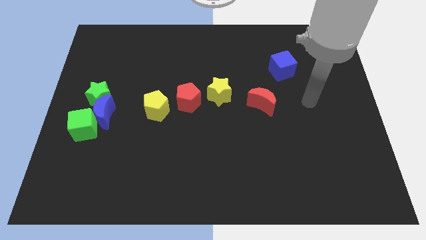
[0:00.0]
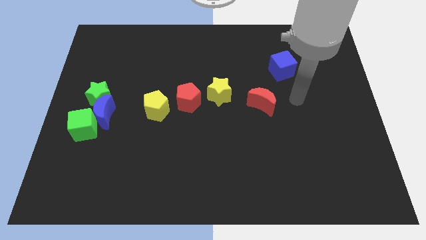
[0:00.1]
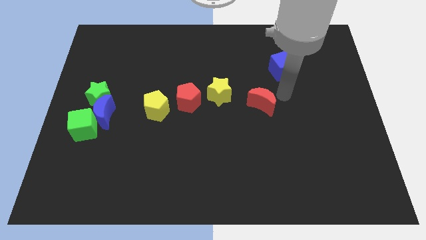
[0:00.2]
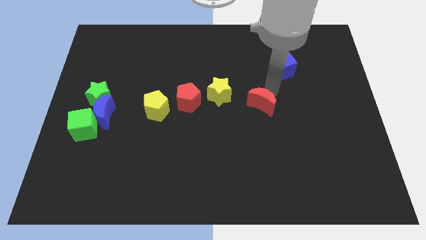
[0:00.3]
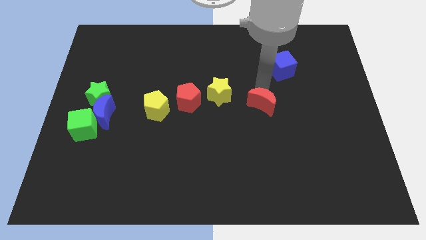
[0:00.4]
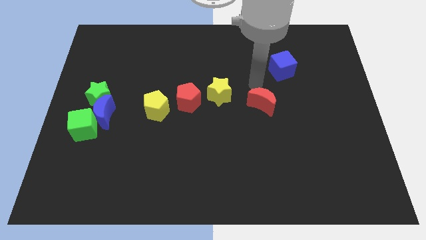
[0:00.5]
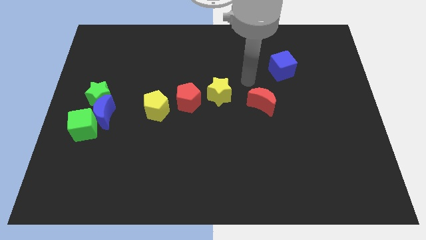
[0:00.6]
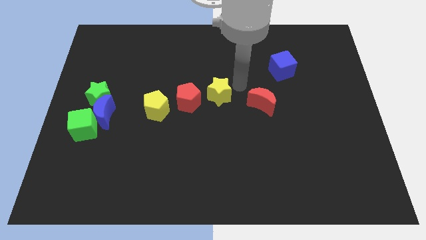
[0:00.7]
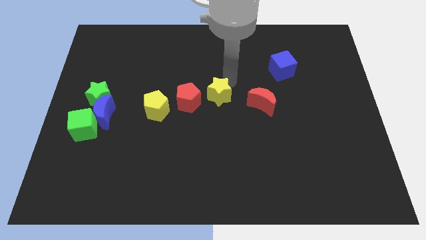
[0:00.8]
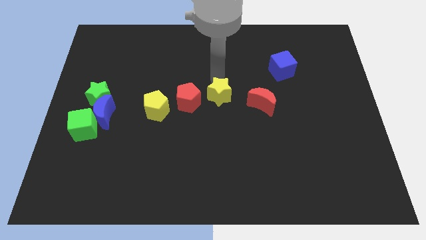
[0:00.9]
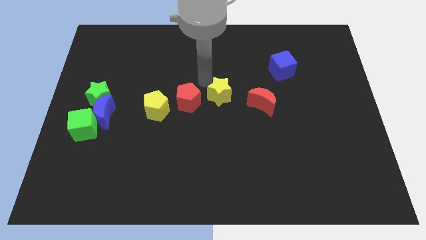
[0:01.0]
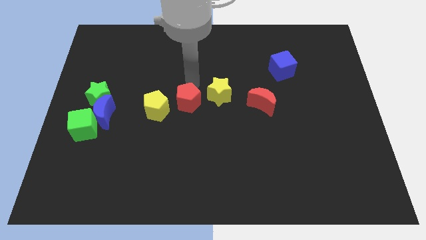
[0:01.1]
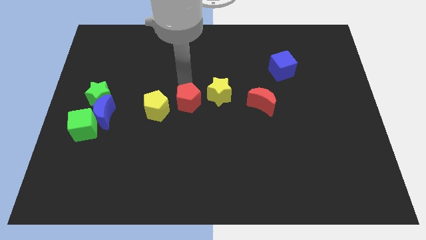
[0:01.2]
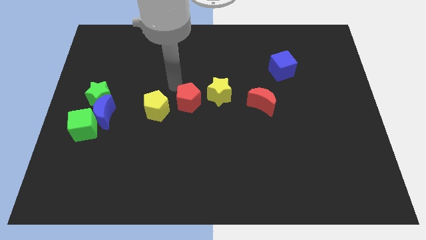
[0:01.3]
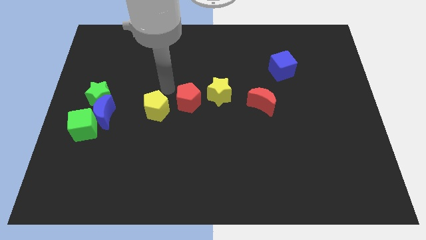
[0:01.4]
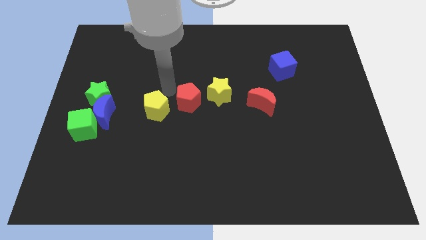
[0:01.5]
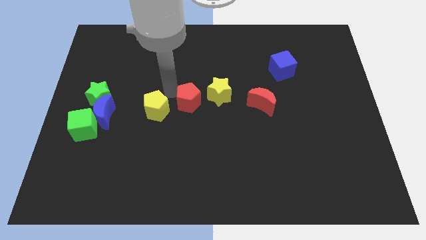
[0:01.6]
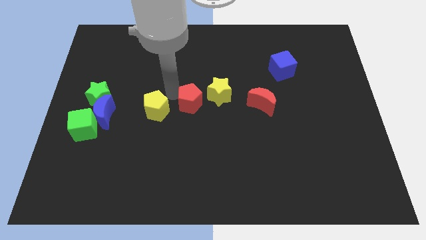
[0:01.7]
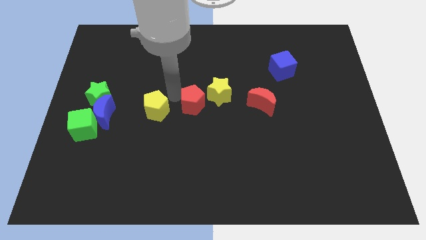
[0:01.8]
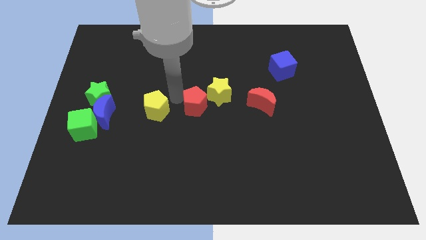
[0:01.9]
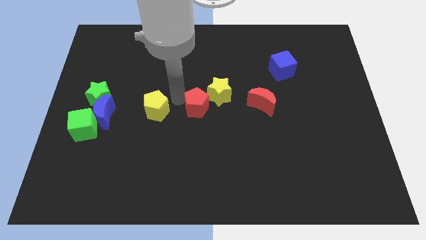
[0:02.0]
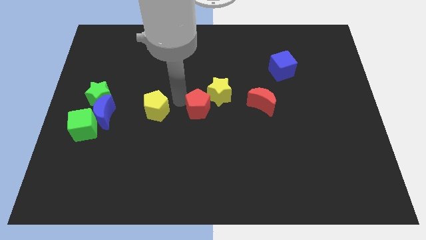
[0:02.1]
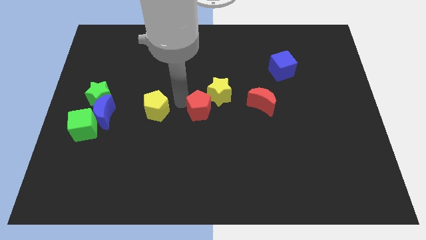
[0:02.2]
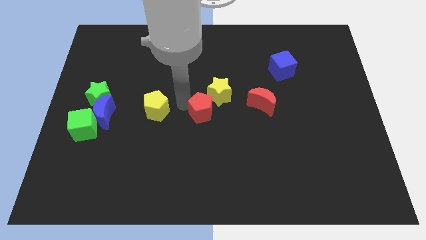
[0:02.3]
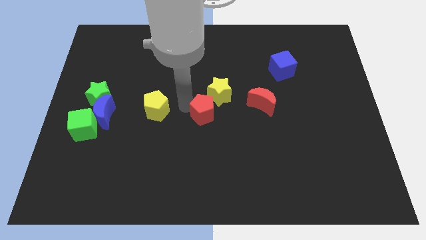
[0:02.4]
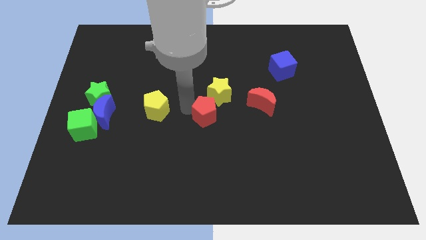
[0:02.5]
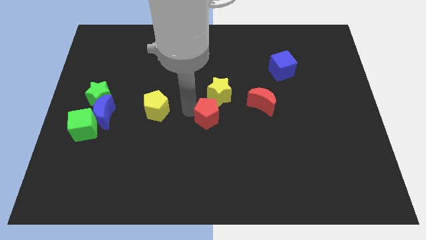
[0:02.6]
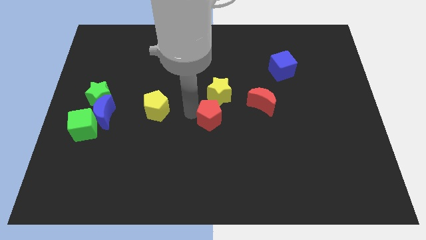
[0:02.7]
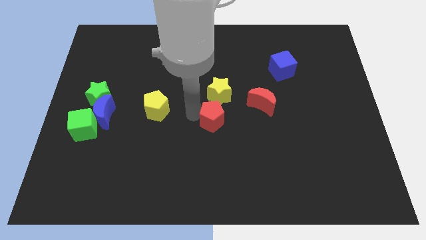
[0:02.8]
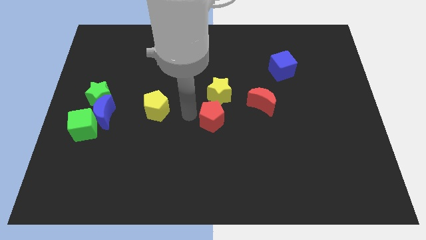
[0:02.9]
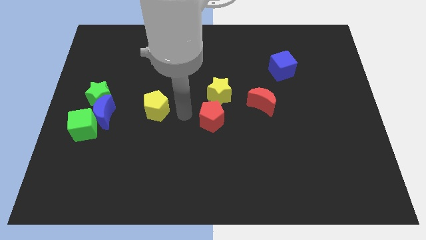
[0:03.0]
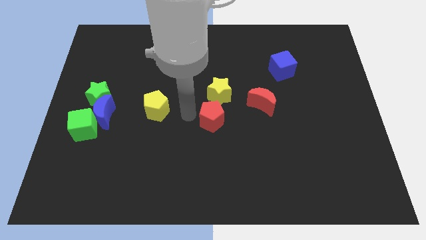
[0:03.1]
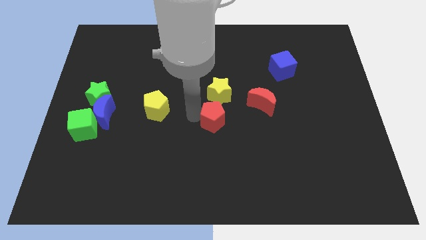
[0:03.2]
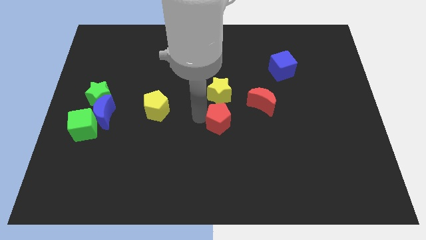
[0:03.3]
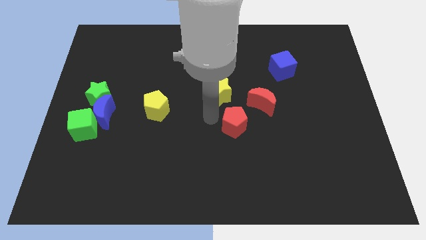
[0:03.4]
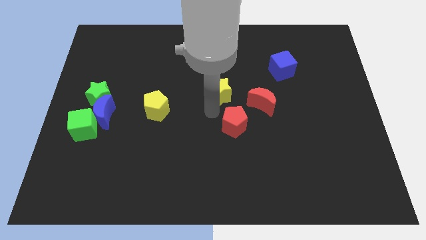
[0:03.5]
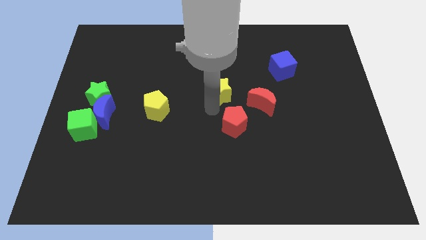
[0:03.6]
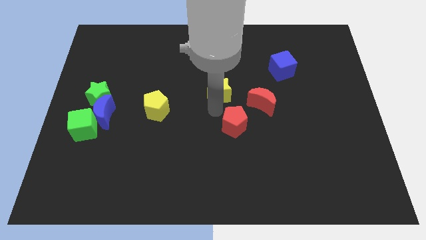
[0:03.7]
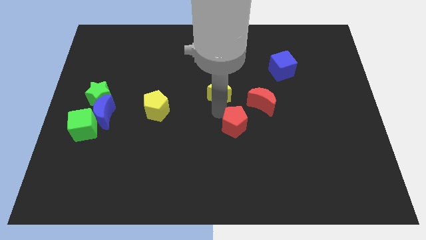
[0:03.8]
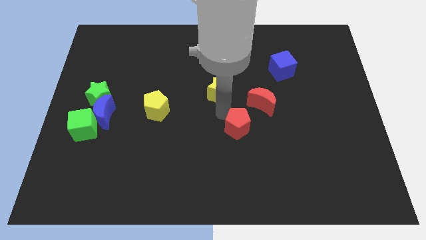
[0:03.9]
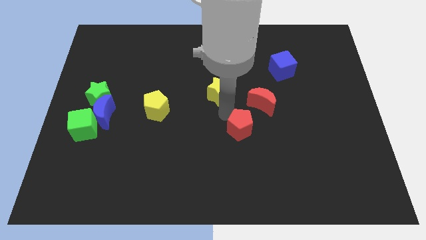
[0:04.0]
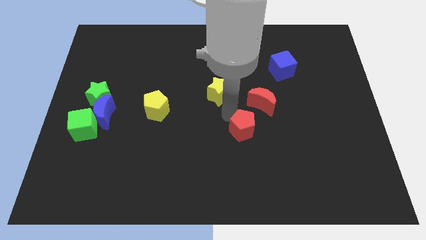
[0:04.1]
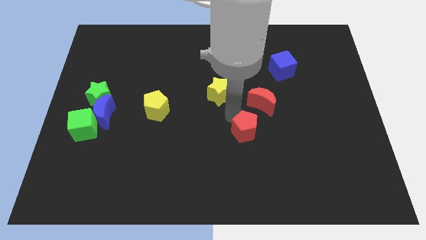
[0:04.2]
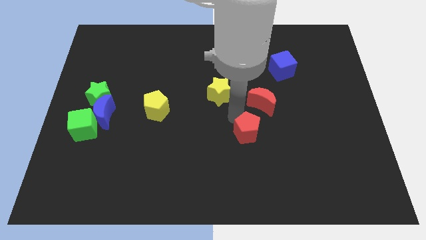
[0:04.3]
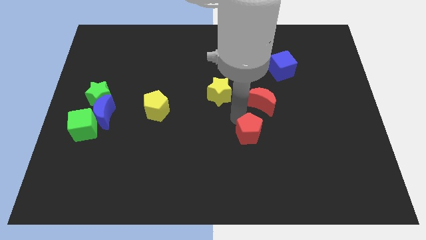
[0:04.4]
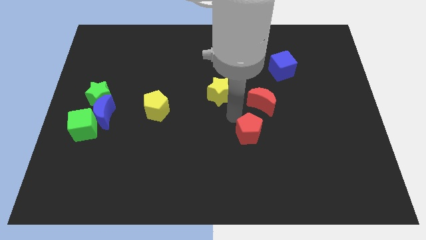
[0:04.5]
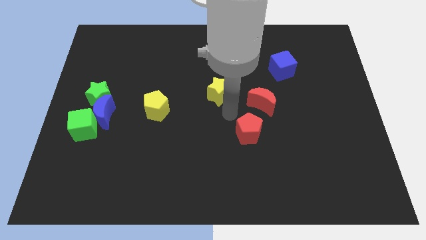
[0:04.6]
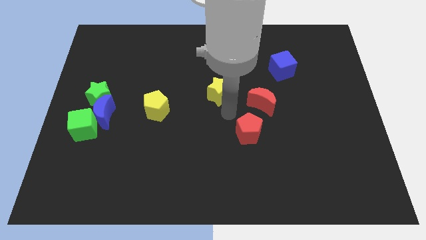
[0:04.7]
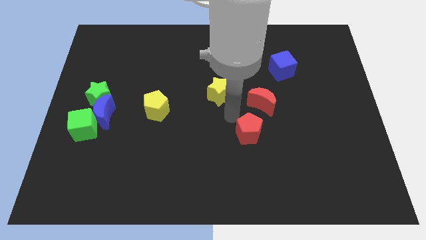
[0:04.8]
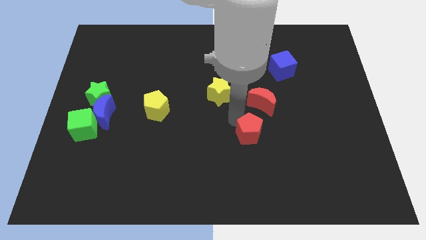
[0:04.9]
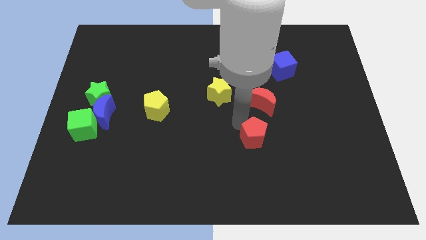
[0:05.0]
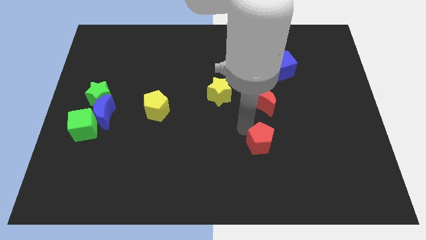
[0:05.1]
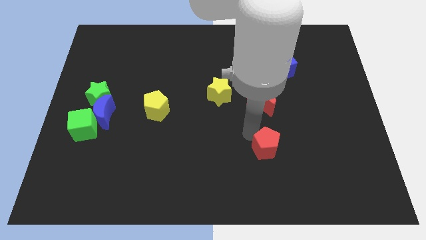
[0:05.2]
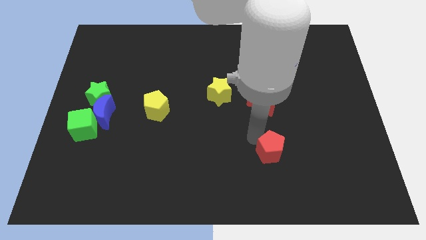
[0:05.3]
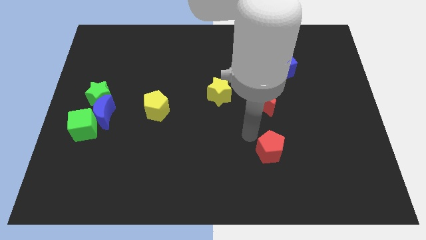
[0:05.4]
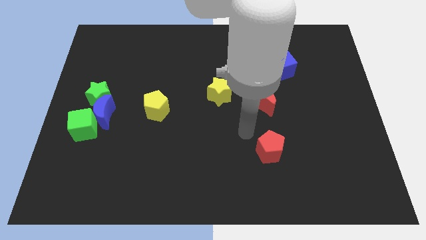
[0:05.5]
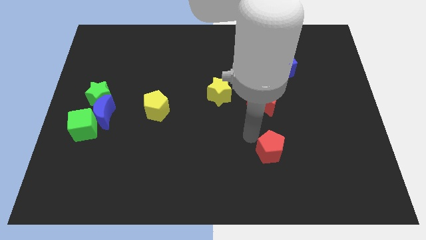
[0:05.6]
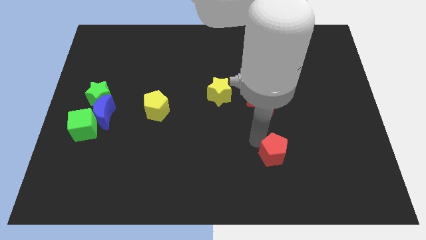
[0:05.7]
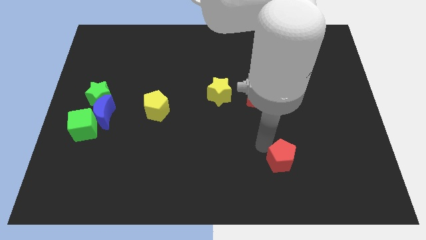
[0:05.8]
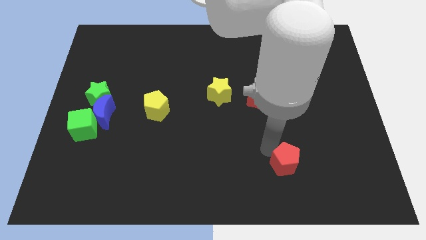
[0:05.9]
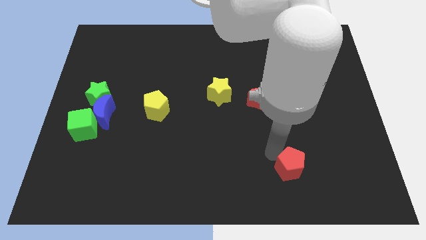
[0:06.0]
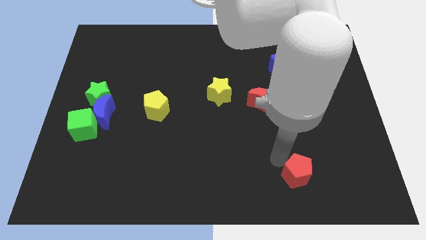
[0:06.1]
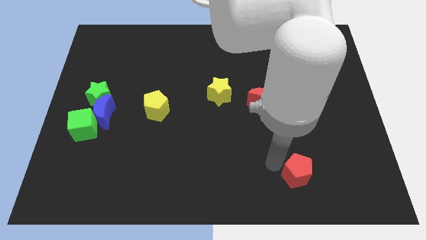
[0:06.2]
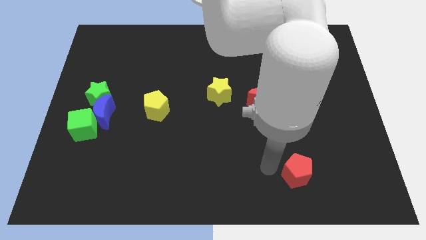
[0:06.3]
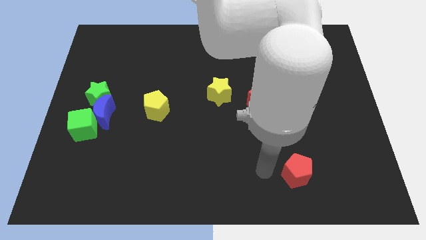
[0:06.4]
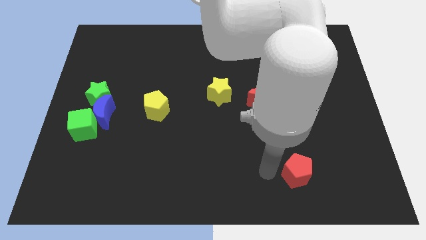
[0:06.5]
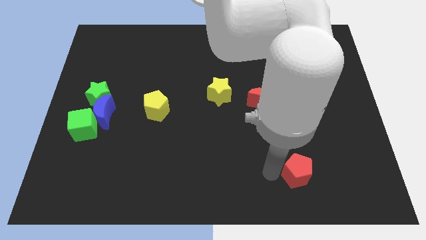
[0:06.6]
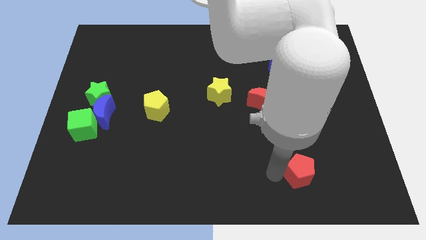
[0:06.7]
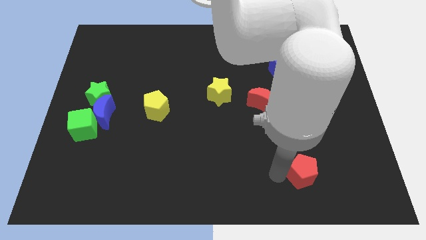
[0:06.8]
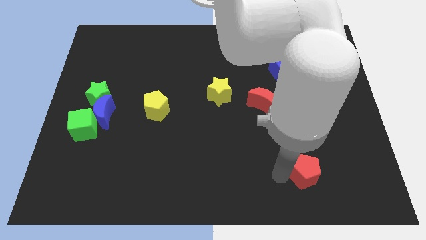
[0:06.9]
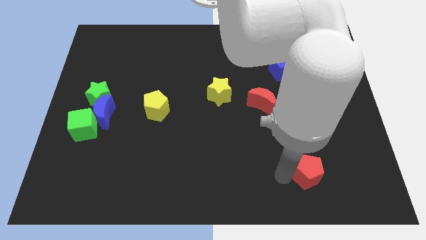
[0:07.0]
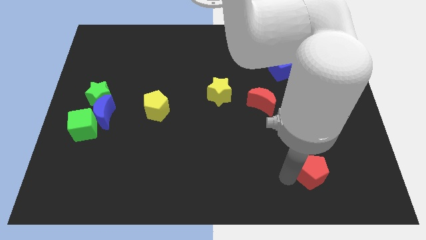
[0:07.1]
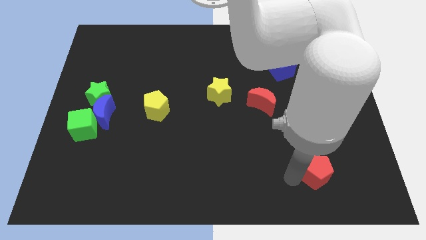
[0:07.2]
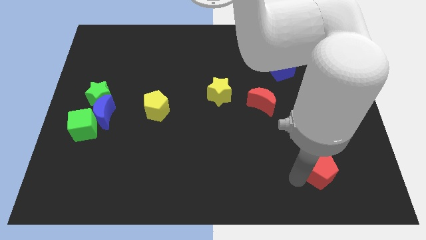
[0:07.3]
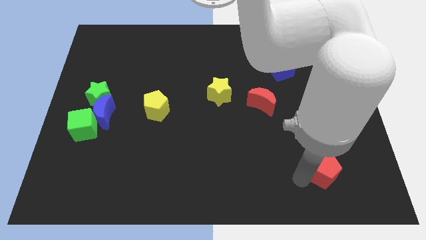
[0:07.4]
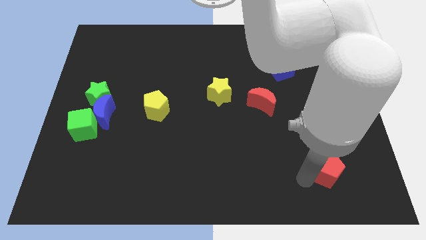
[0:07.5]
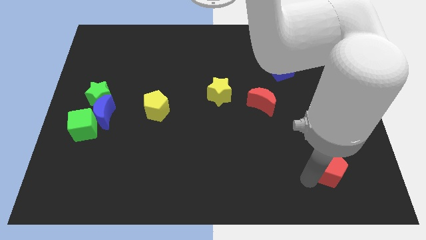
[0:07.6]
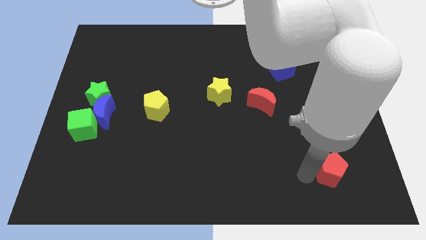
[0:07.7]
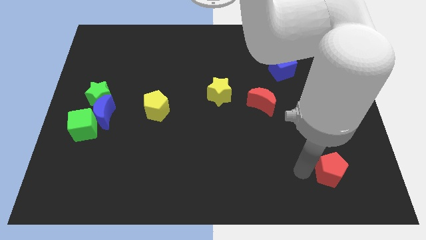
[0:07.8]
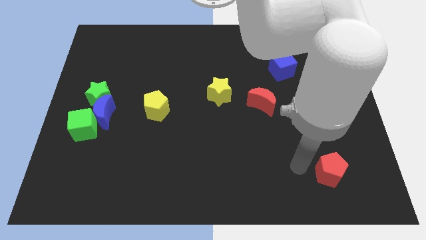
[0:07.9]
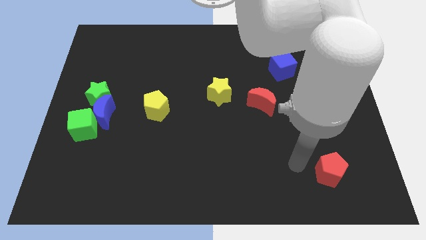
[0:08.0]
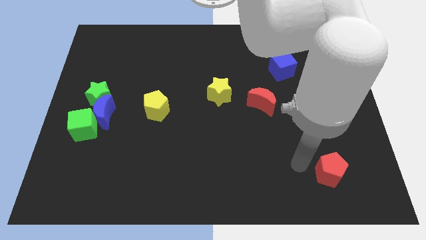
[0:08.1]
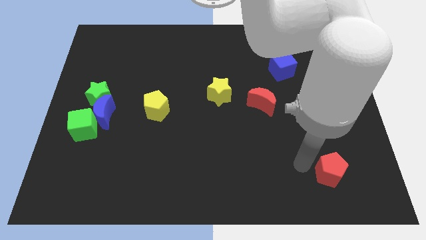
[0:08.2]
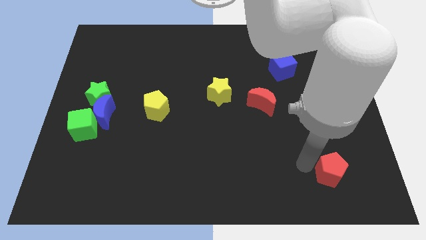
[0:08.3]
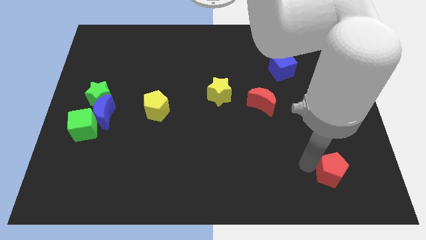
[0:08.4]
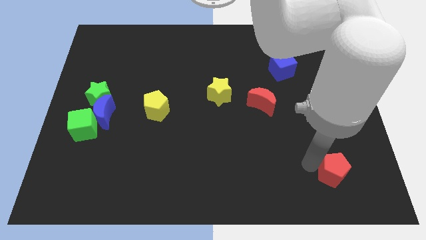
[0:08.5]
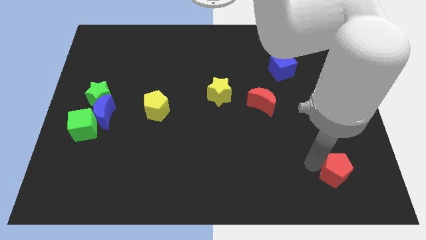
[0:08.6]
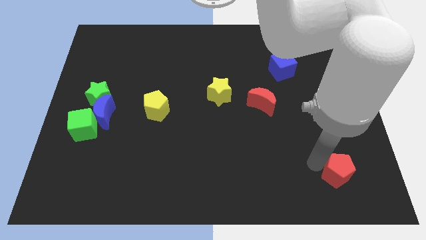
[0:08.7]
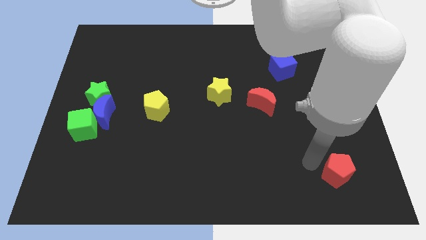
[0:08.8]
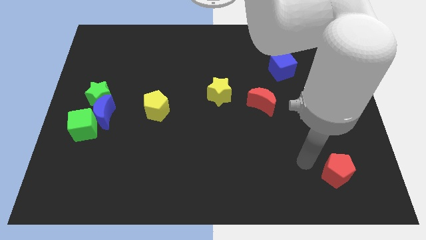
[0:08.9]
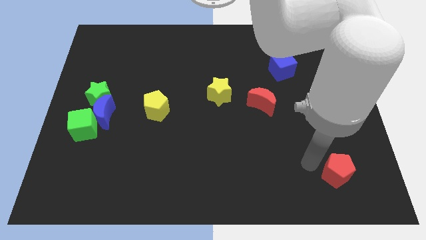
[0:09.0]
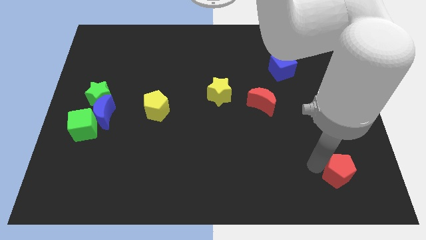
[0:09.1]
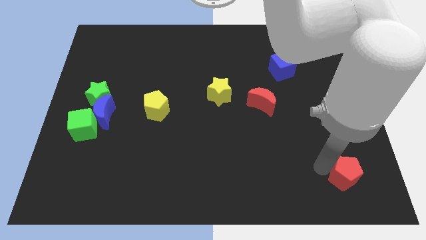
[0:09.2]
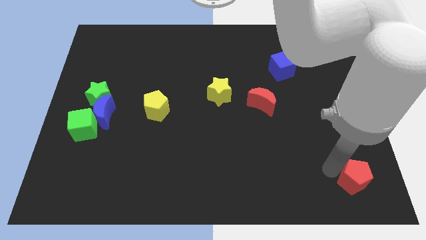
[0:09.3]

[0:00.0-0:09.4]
put the red pentagon to the bottom right
